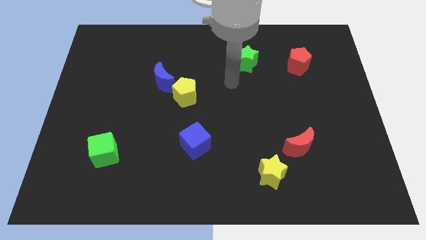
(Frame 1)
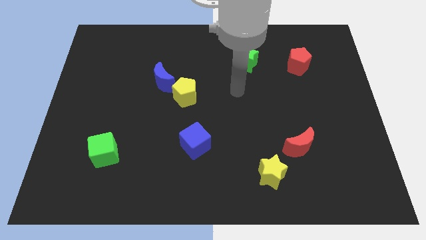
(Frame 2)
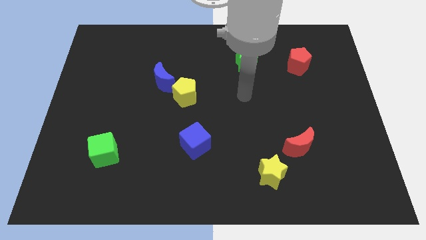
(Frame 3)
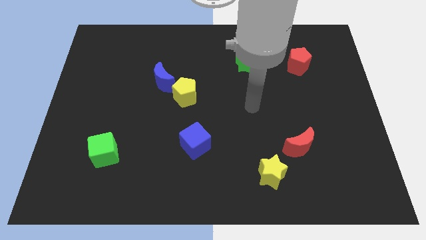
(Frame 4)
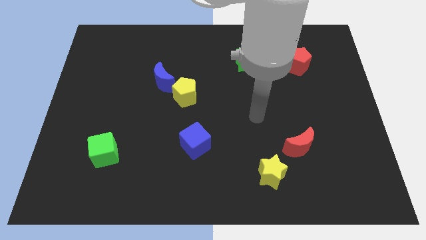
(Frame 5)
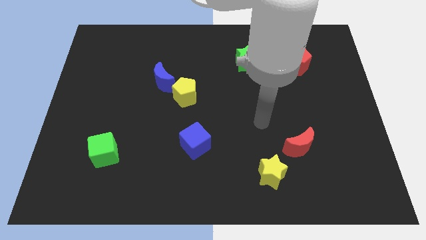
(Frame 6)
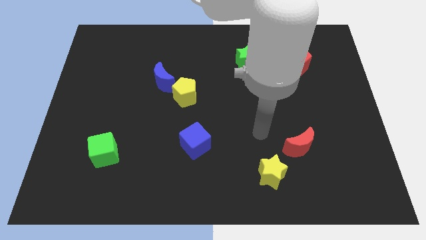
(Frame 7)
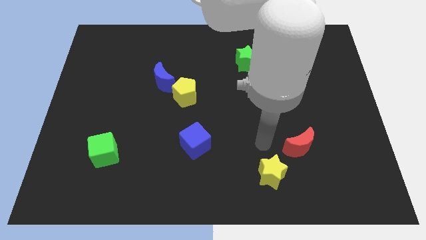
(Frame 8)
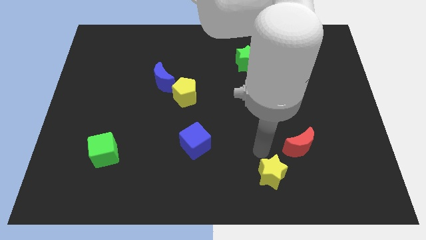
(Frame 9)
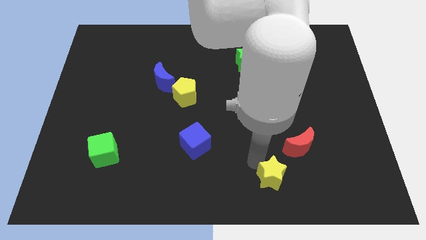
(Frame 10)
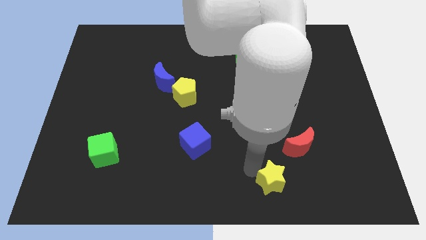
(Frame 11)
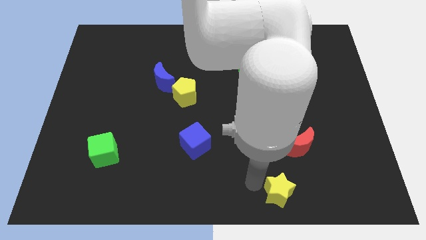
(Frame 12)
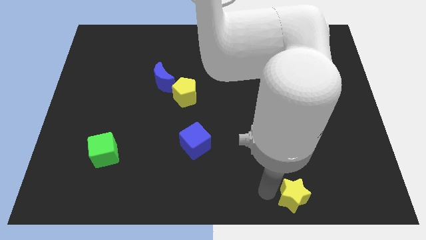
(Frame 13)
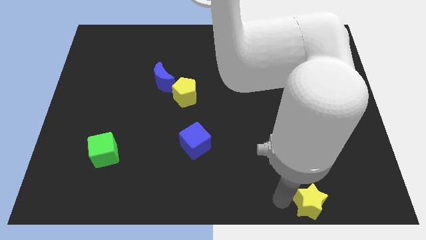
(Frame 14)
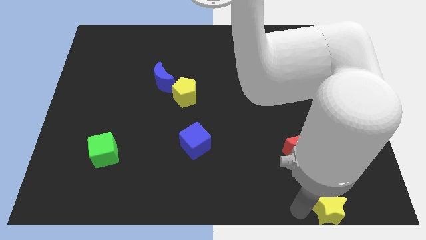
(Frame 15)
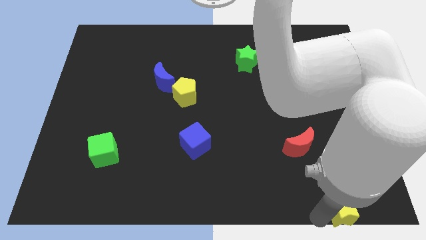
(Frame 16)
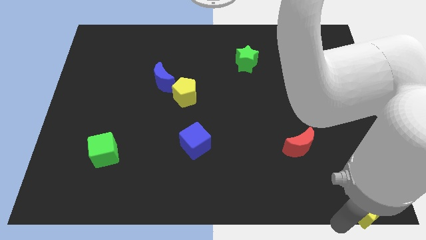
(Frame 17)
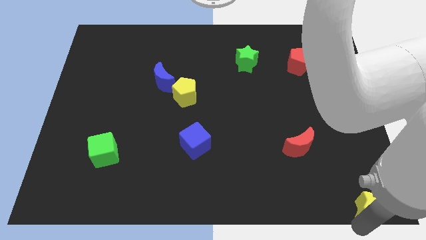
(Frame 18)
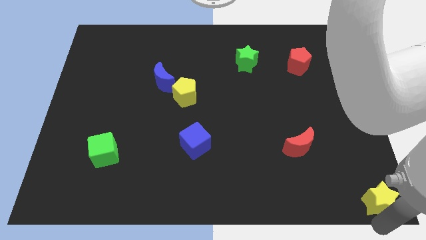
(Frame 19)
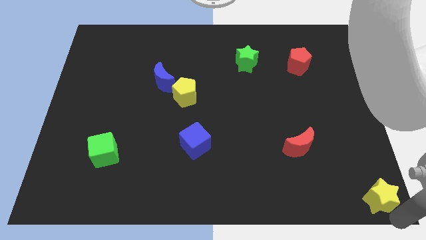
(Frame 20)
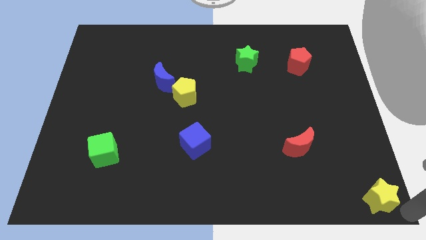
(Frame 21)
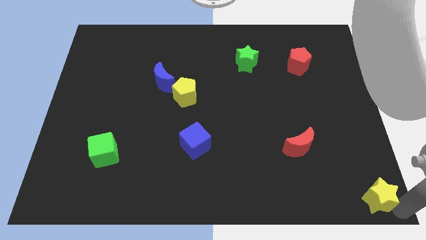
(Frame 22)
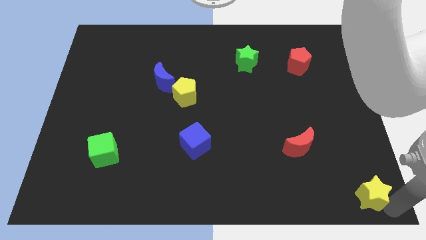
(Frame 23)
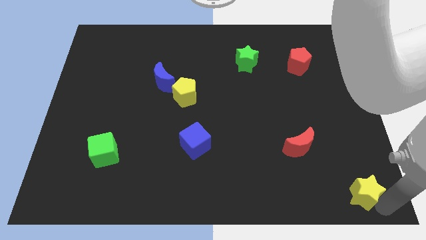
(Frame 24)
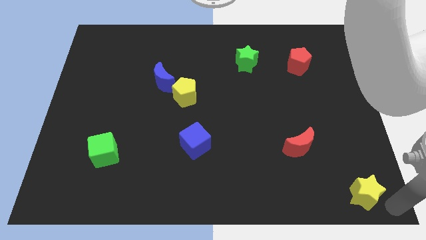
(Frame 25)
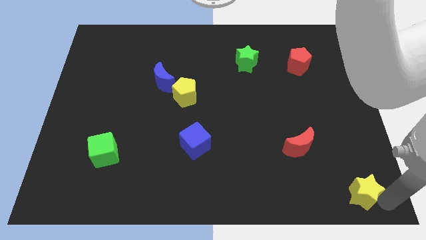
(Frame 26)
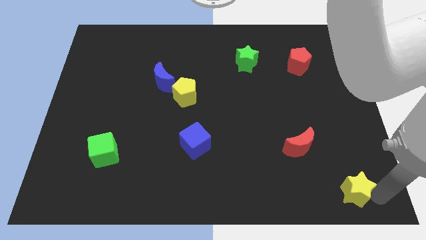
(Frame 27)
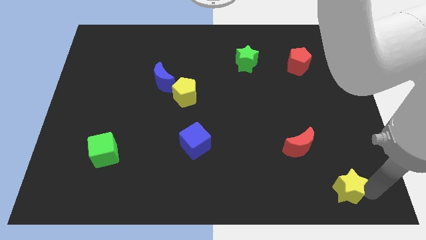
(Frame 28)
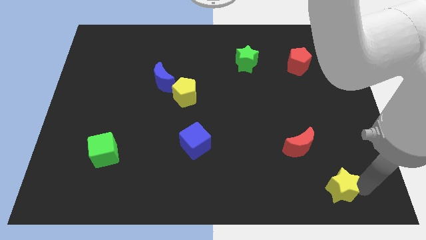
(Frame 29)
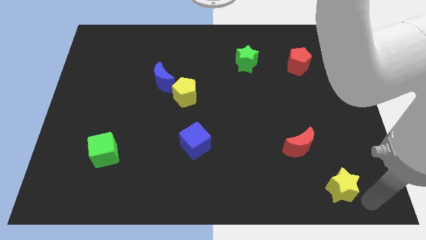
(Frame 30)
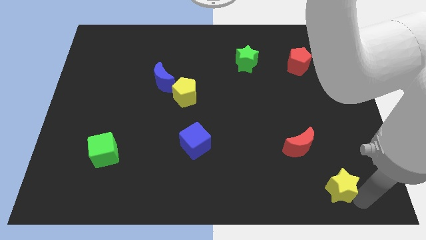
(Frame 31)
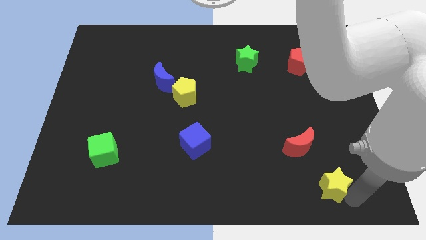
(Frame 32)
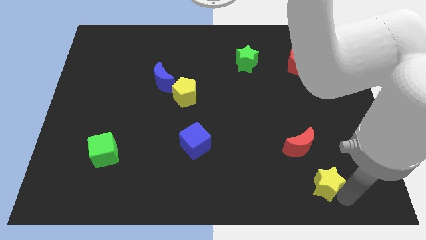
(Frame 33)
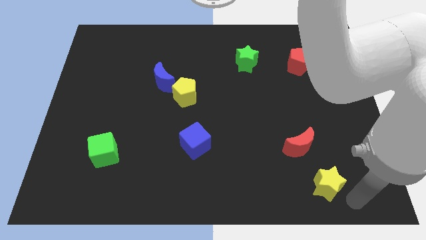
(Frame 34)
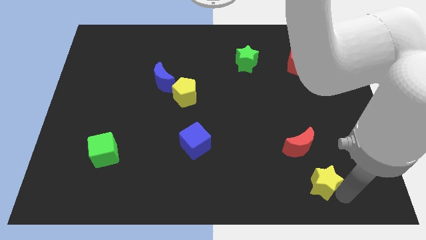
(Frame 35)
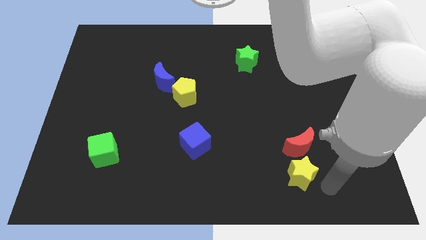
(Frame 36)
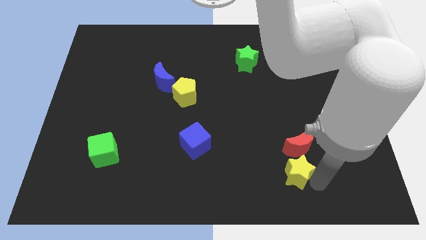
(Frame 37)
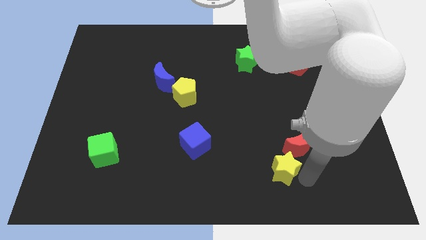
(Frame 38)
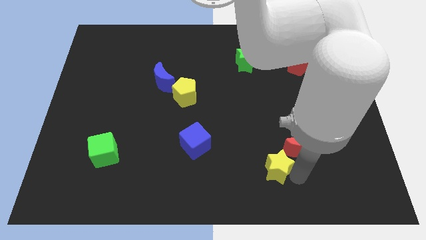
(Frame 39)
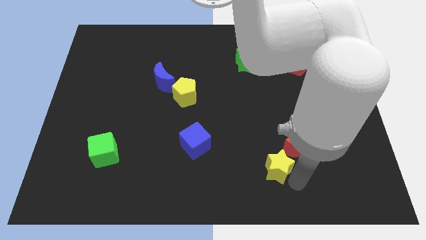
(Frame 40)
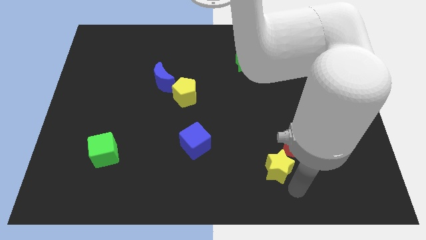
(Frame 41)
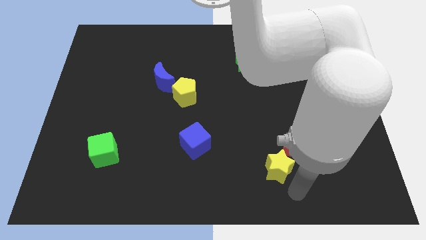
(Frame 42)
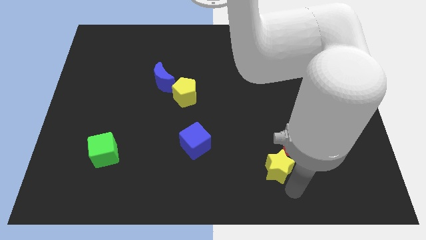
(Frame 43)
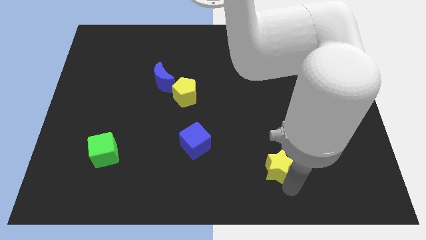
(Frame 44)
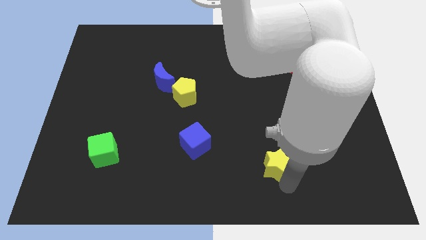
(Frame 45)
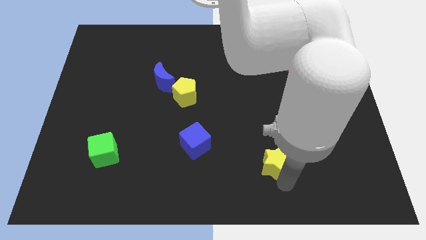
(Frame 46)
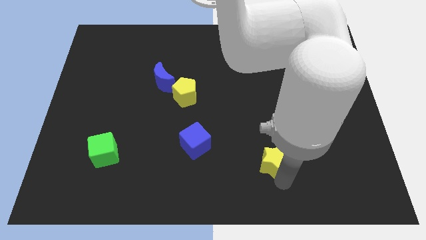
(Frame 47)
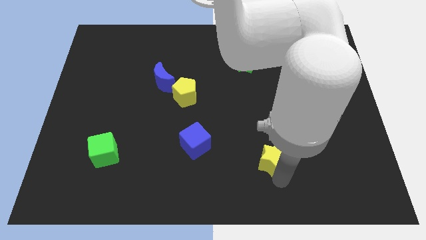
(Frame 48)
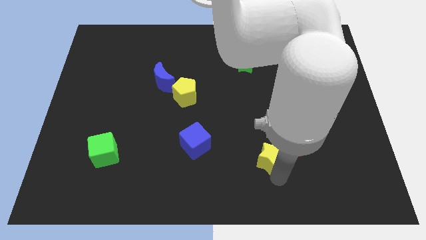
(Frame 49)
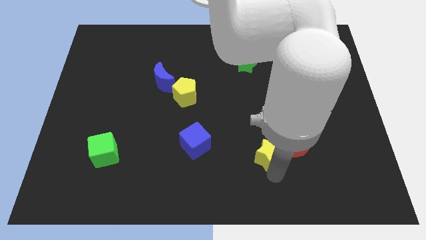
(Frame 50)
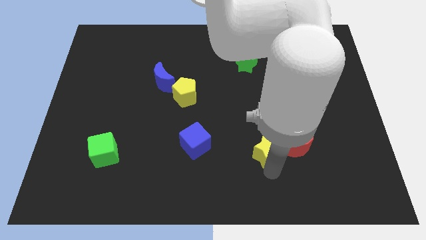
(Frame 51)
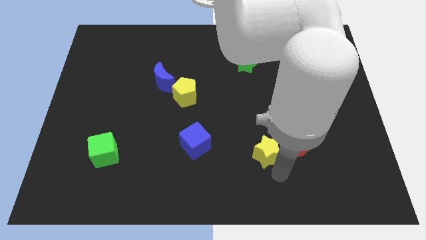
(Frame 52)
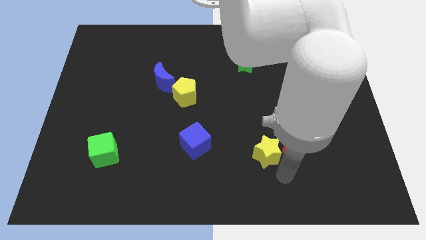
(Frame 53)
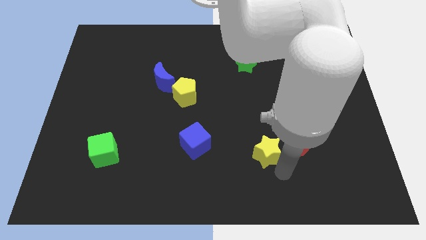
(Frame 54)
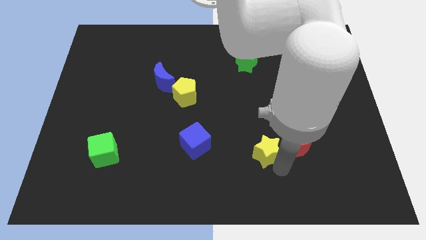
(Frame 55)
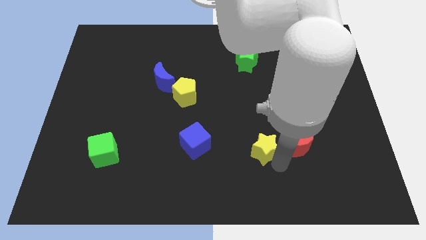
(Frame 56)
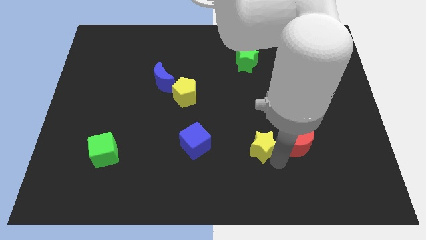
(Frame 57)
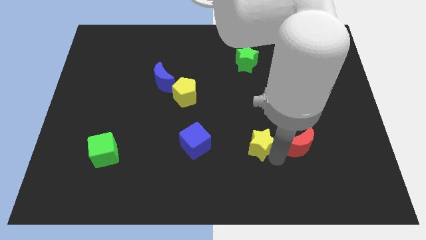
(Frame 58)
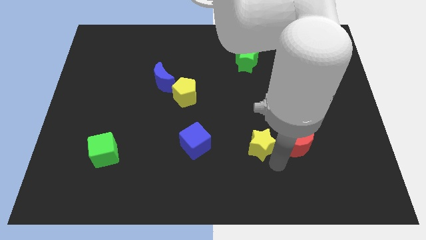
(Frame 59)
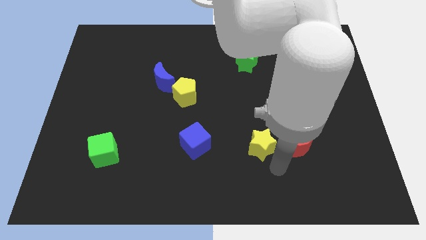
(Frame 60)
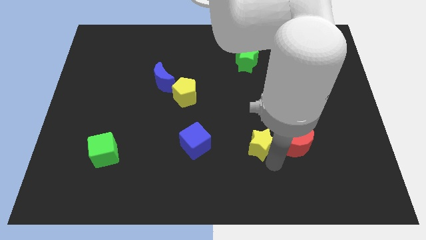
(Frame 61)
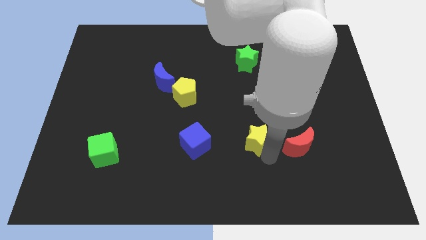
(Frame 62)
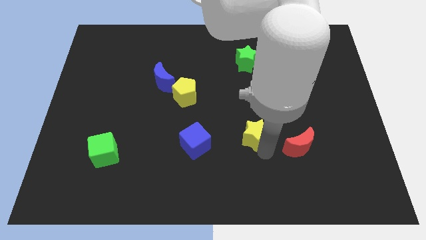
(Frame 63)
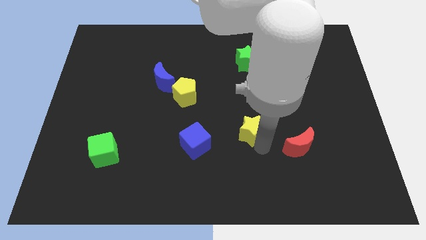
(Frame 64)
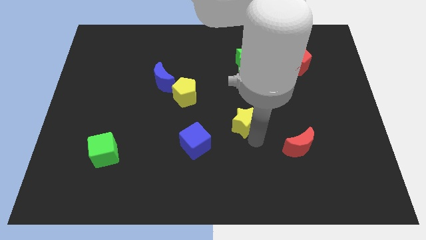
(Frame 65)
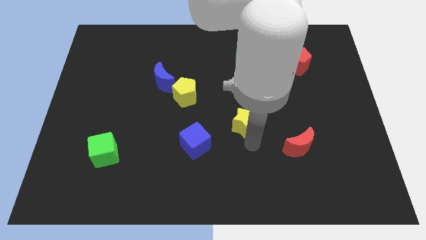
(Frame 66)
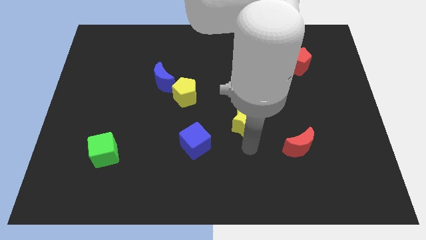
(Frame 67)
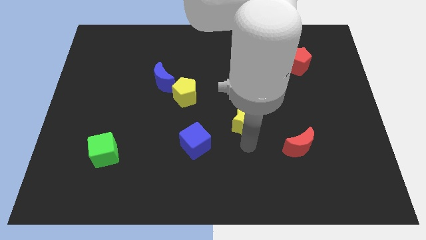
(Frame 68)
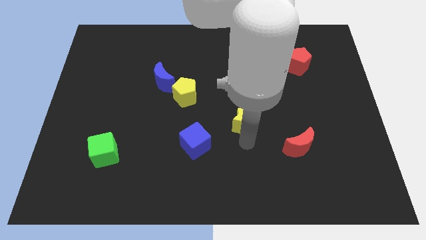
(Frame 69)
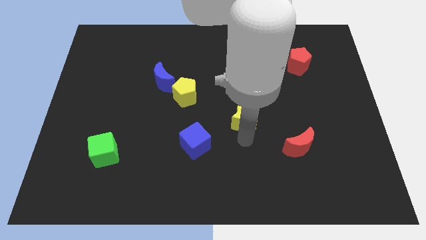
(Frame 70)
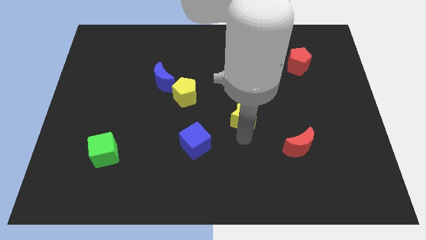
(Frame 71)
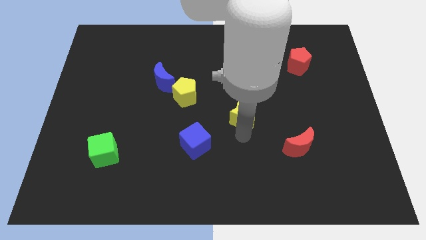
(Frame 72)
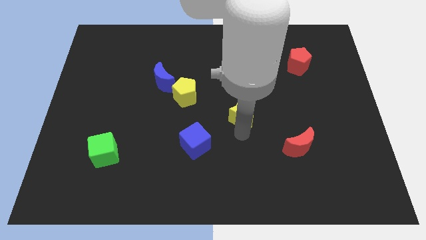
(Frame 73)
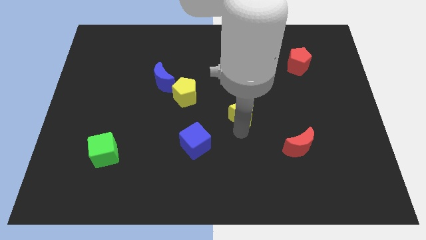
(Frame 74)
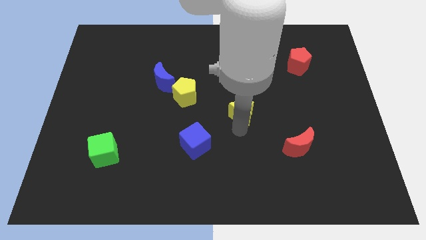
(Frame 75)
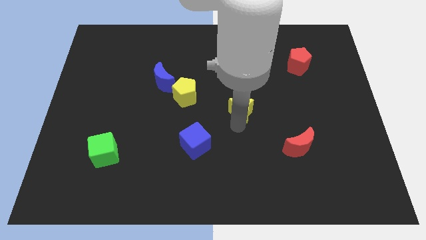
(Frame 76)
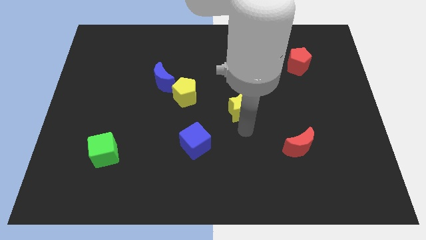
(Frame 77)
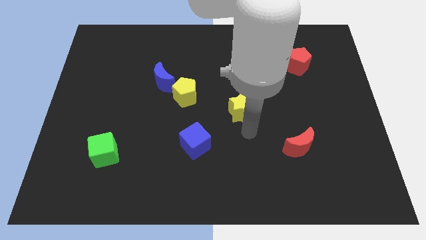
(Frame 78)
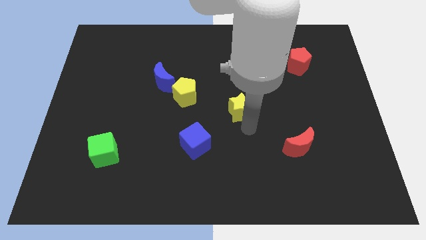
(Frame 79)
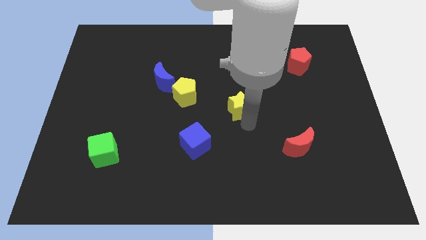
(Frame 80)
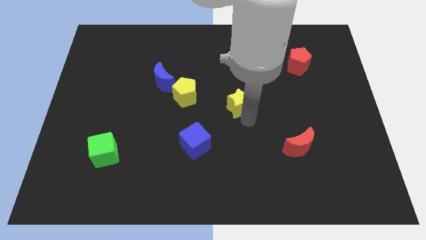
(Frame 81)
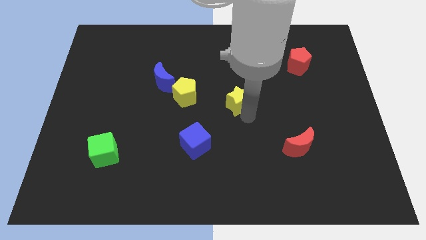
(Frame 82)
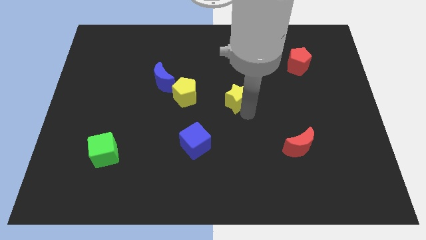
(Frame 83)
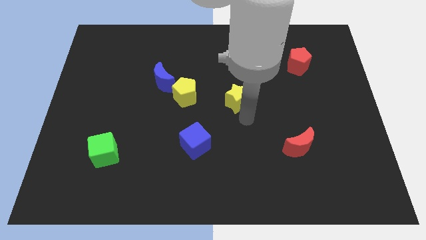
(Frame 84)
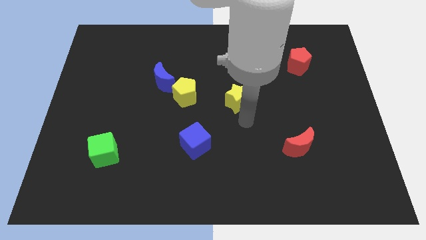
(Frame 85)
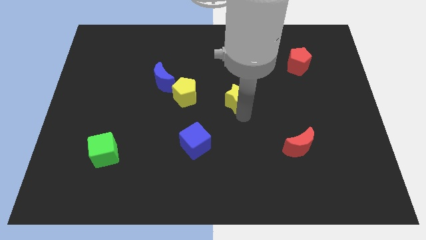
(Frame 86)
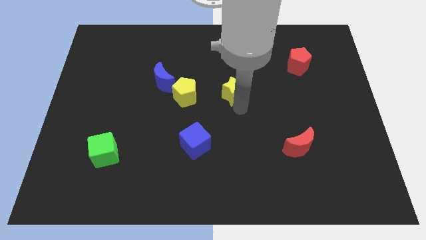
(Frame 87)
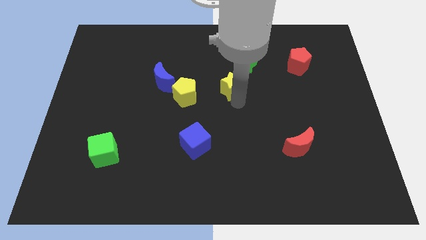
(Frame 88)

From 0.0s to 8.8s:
put the yellow star diagonally down and to the left of the green star
